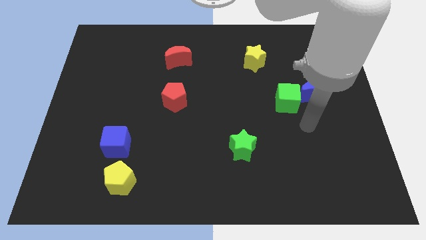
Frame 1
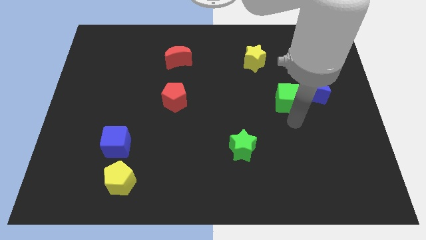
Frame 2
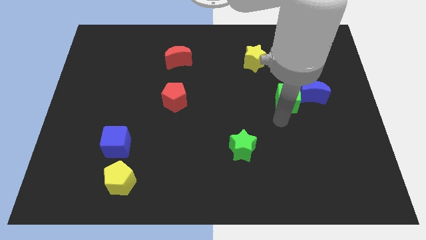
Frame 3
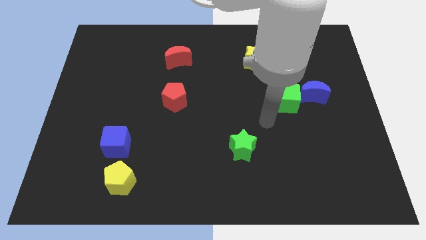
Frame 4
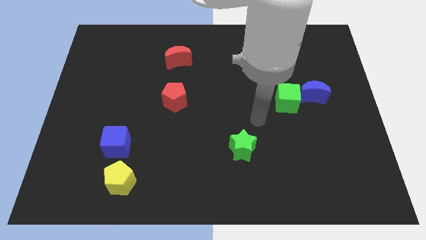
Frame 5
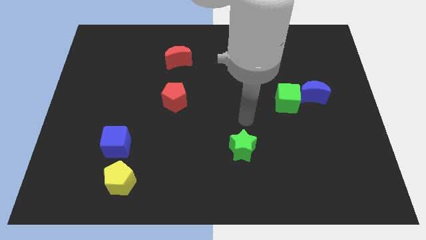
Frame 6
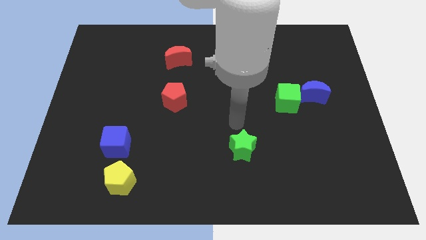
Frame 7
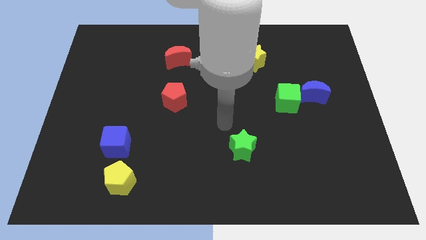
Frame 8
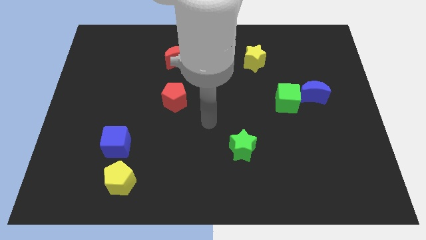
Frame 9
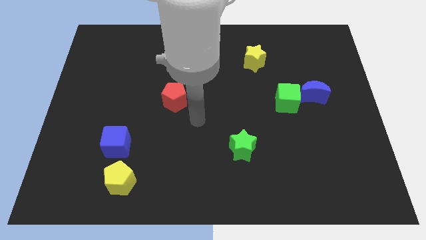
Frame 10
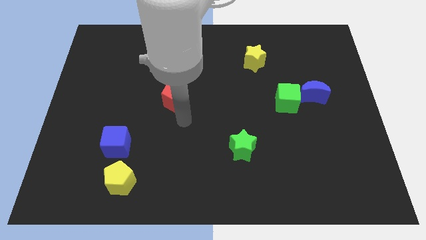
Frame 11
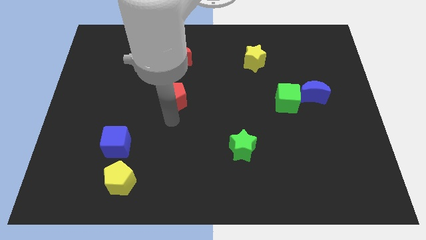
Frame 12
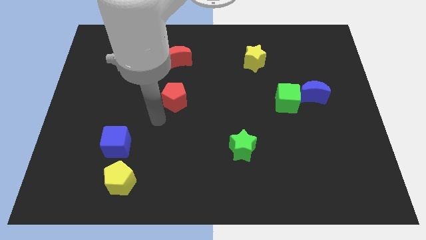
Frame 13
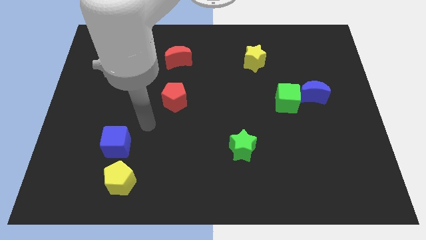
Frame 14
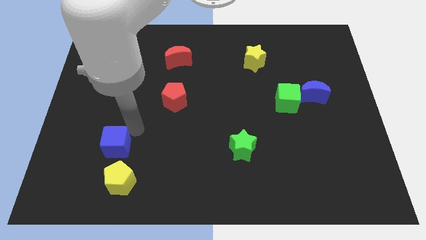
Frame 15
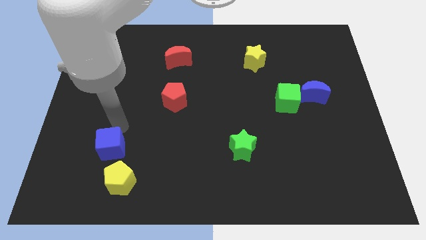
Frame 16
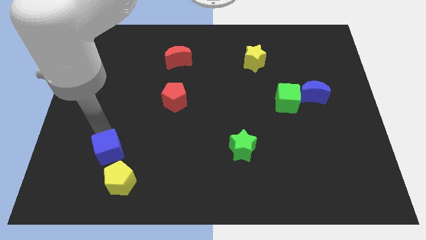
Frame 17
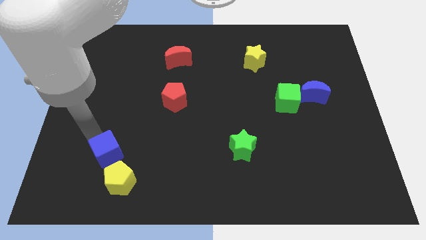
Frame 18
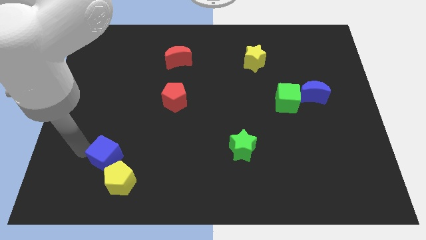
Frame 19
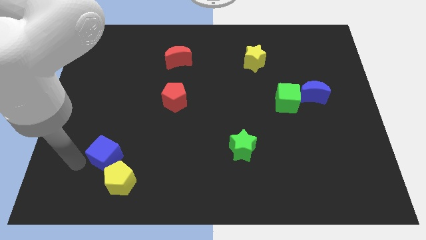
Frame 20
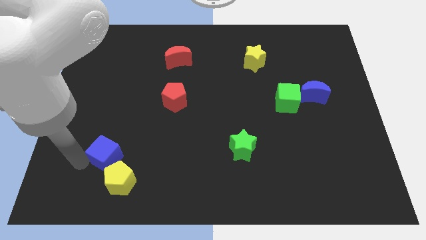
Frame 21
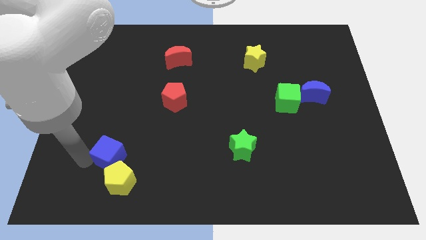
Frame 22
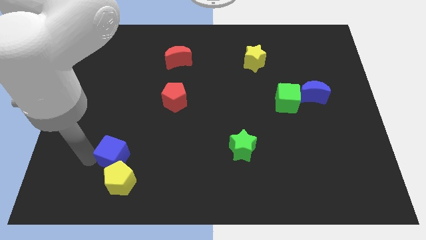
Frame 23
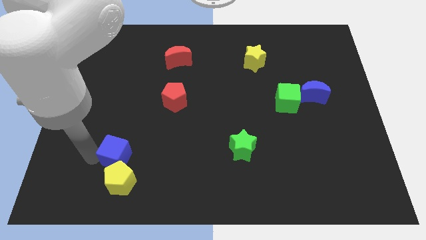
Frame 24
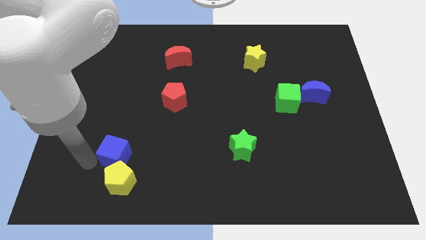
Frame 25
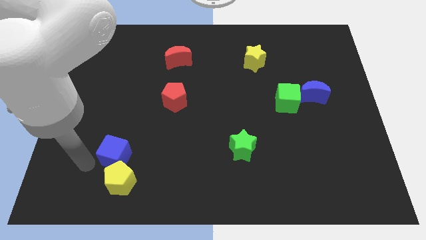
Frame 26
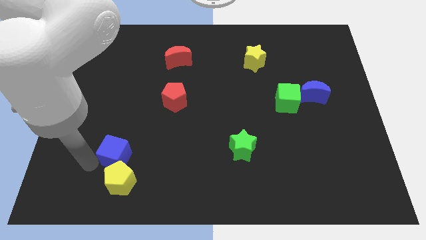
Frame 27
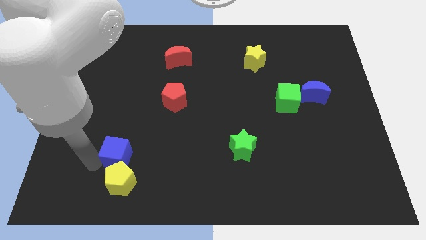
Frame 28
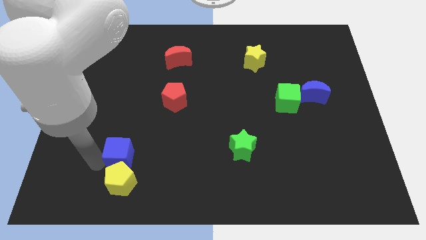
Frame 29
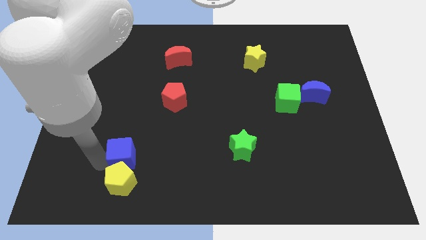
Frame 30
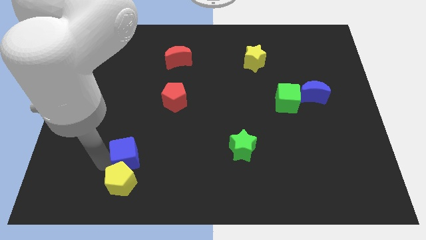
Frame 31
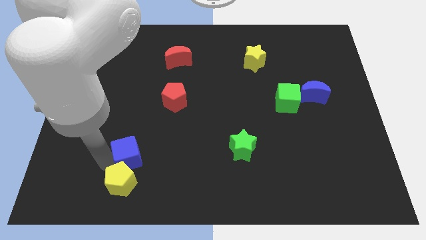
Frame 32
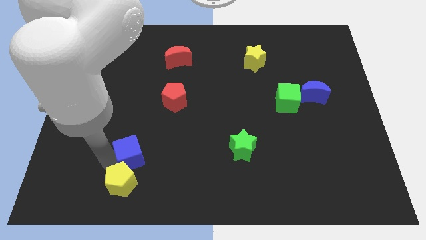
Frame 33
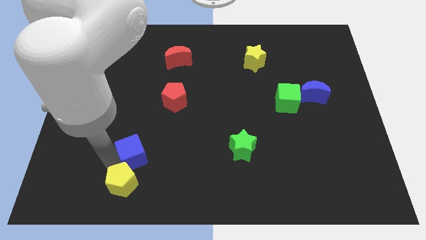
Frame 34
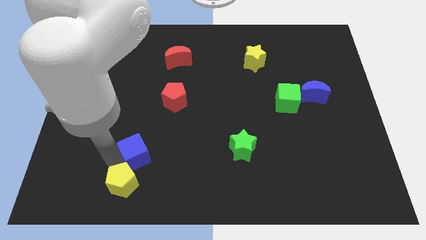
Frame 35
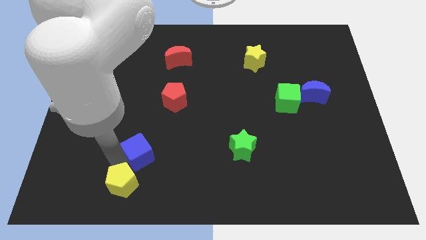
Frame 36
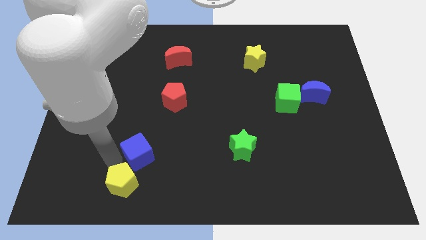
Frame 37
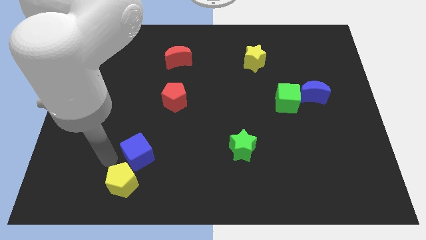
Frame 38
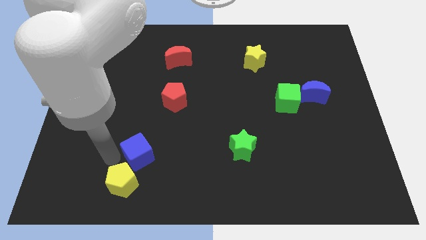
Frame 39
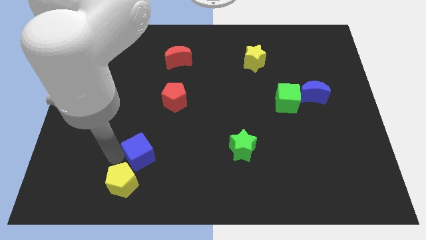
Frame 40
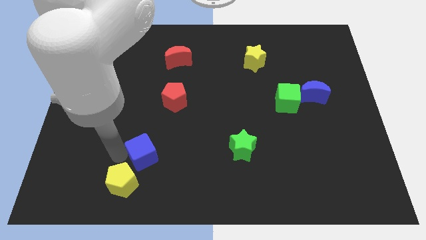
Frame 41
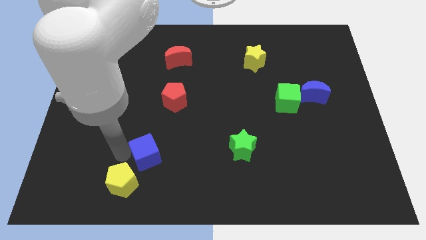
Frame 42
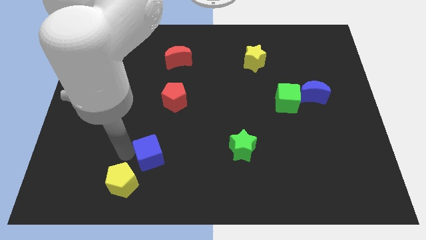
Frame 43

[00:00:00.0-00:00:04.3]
slide the blue cube right a little bit

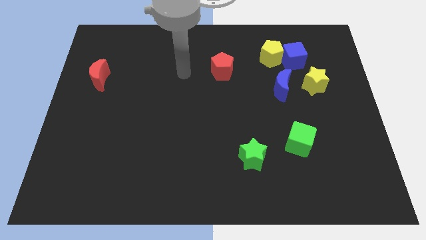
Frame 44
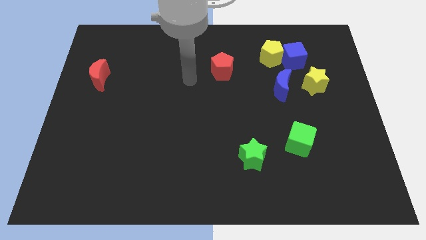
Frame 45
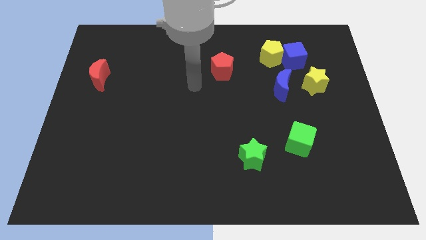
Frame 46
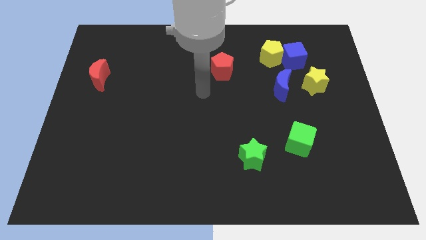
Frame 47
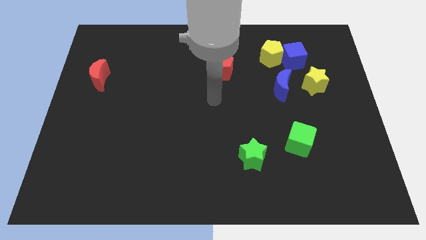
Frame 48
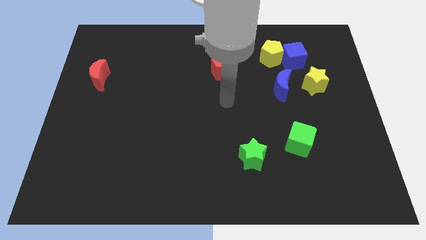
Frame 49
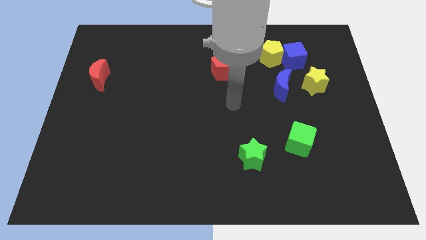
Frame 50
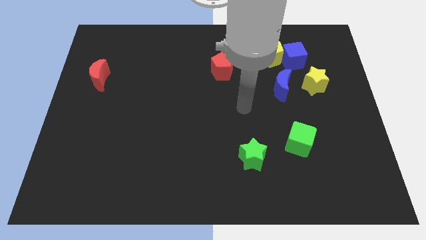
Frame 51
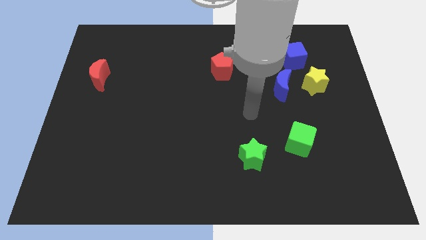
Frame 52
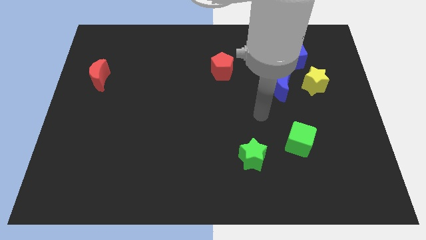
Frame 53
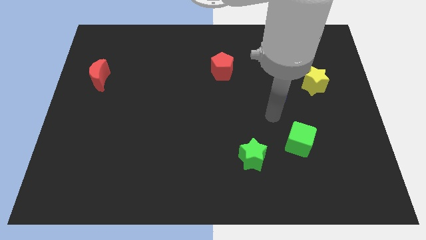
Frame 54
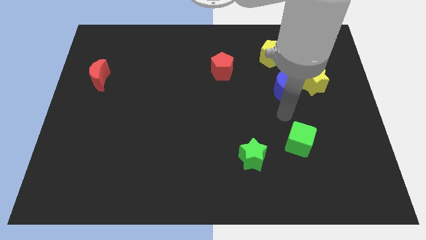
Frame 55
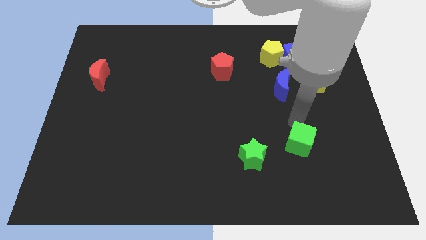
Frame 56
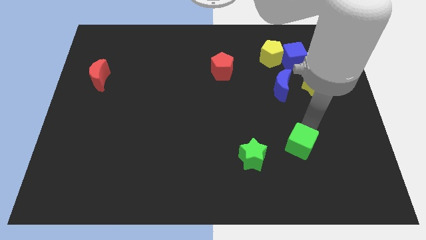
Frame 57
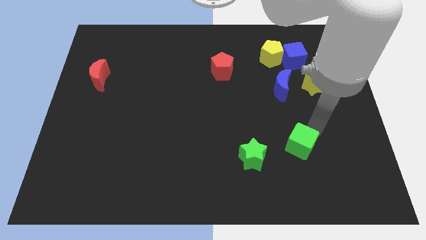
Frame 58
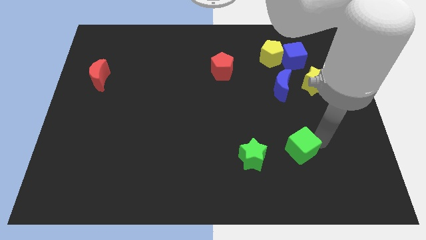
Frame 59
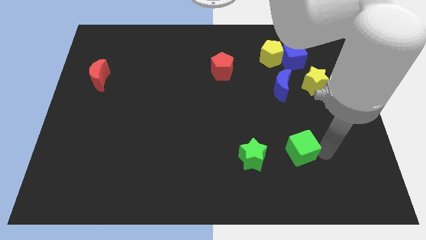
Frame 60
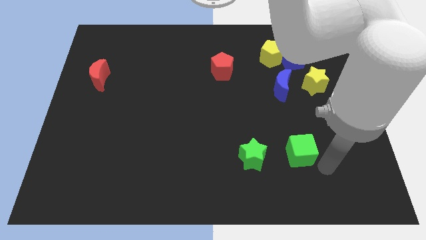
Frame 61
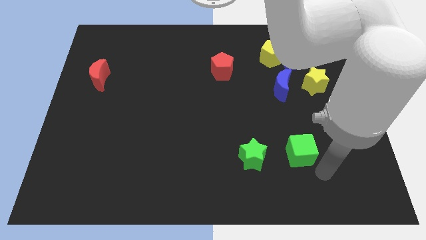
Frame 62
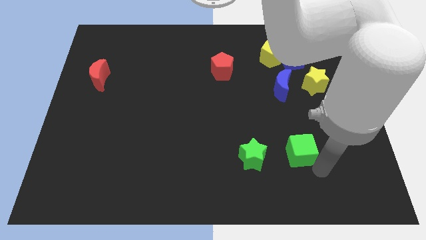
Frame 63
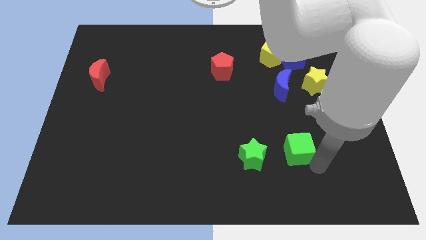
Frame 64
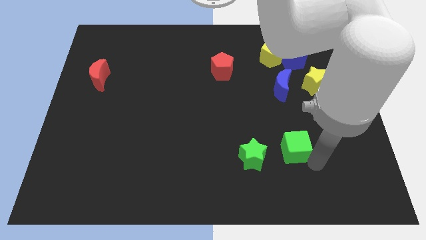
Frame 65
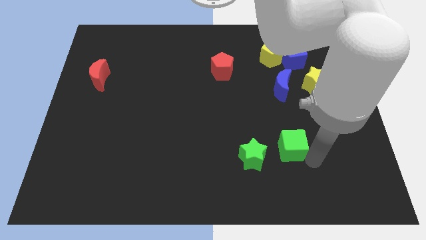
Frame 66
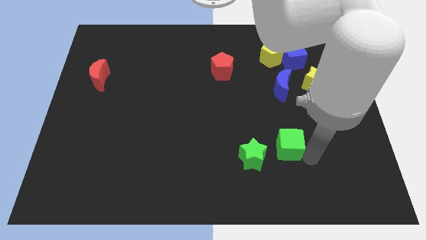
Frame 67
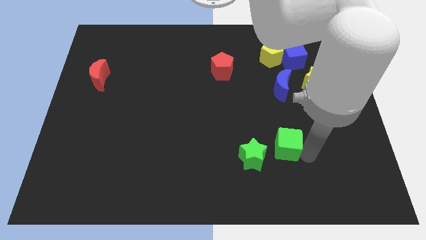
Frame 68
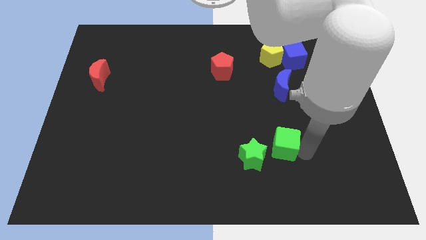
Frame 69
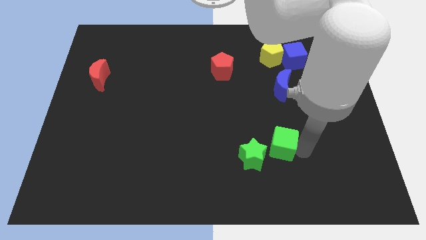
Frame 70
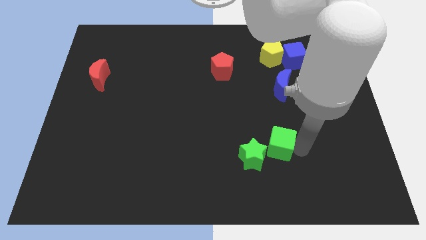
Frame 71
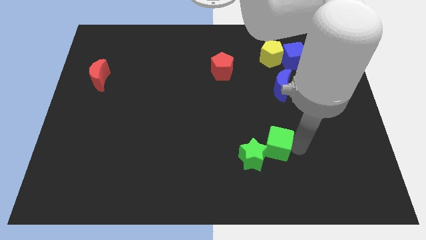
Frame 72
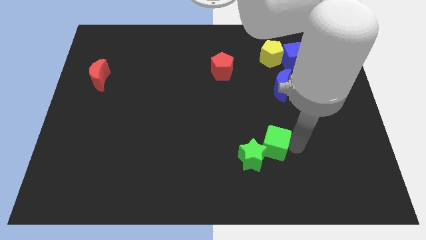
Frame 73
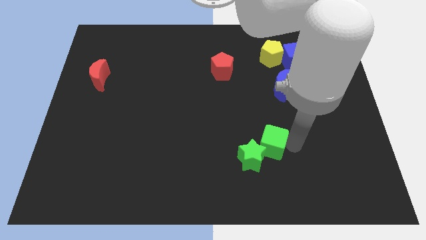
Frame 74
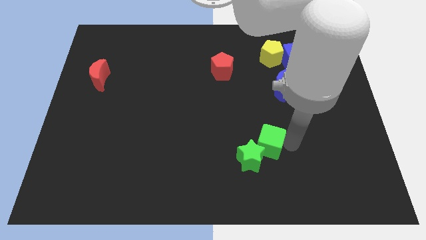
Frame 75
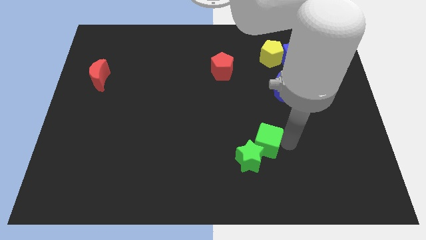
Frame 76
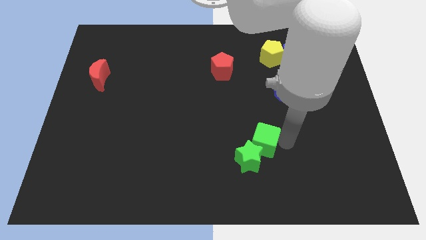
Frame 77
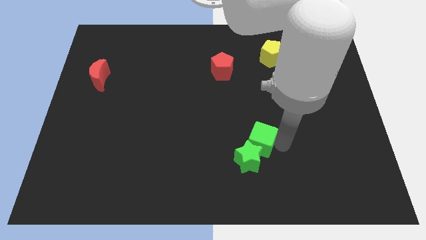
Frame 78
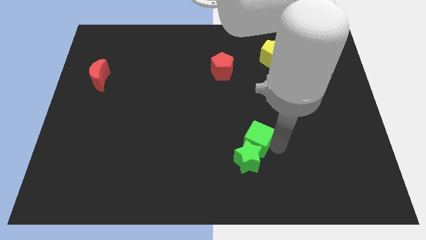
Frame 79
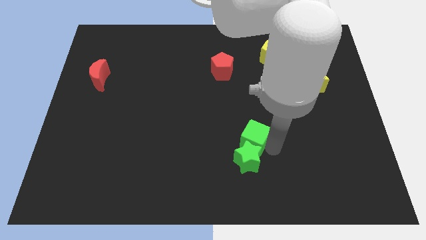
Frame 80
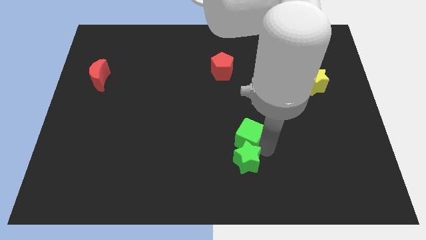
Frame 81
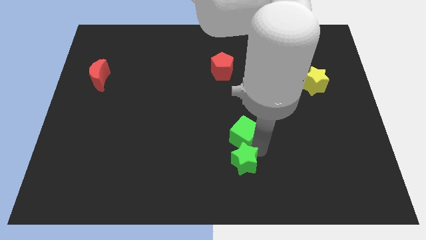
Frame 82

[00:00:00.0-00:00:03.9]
move the green cube diagonally upwards and to the left a little
